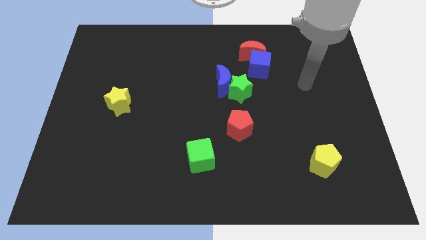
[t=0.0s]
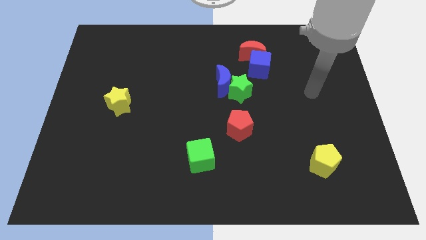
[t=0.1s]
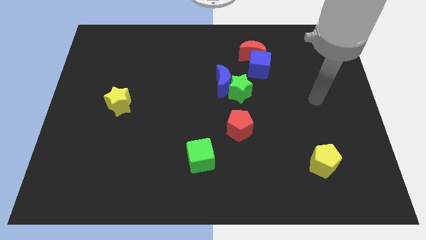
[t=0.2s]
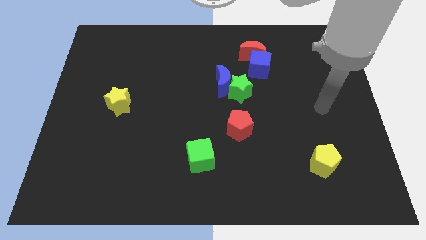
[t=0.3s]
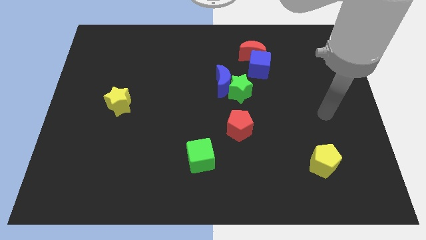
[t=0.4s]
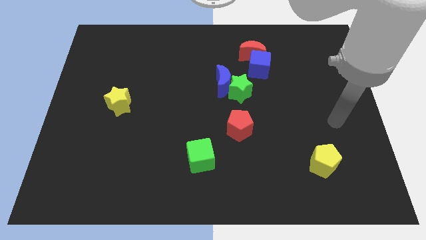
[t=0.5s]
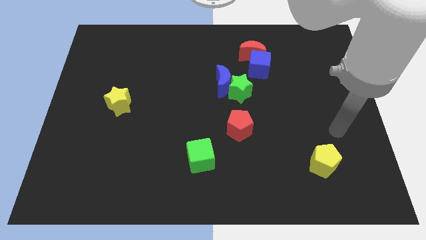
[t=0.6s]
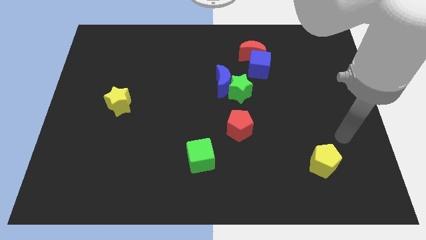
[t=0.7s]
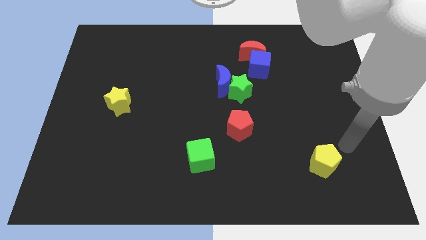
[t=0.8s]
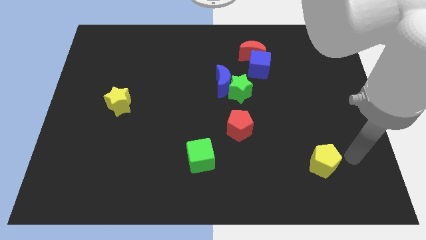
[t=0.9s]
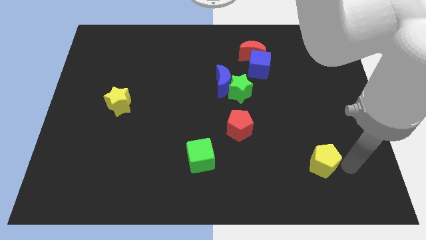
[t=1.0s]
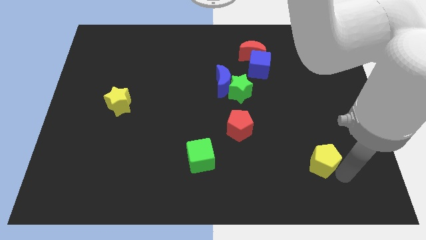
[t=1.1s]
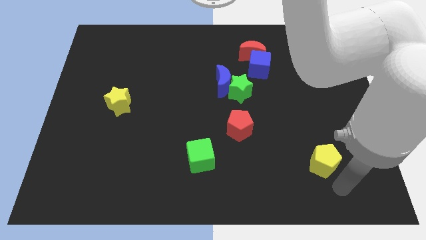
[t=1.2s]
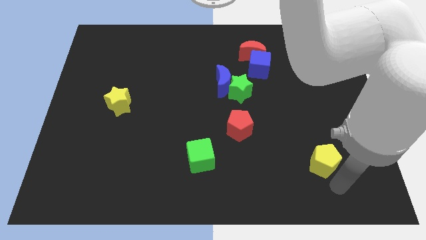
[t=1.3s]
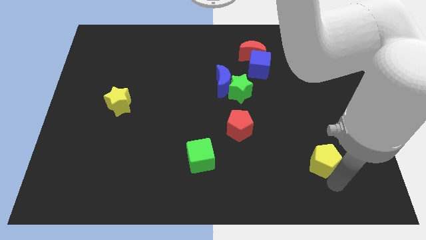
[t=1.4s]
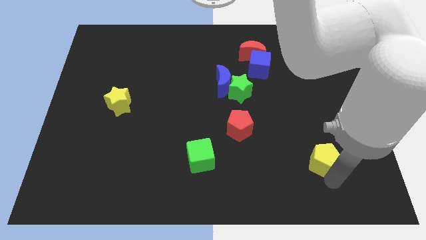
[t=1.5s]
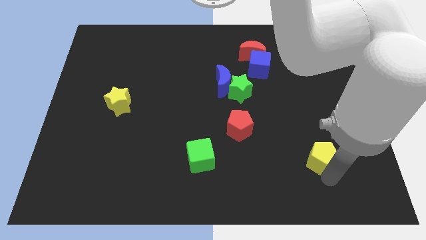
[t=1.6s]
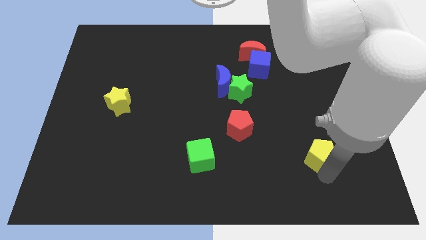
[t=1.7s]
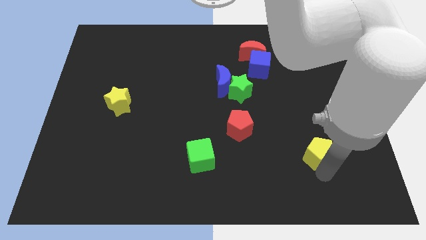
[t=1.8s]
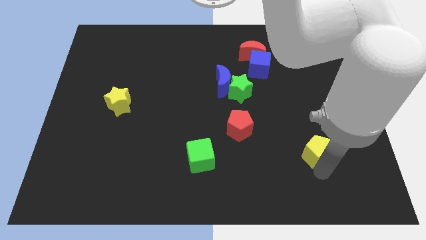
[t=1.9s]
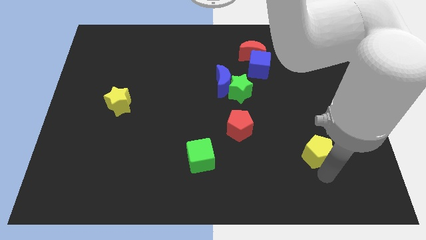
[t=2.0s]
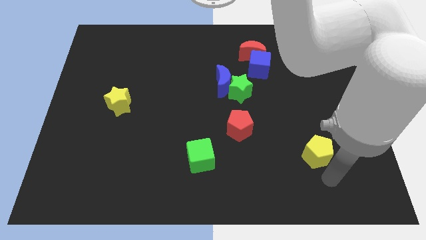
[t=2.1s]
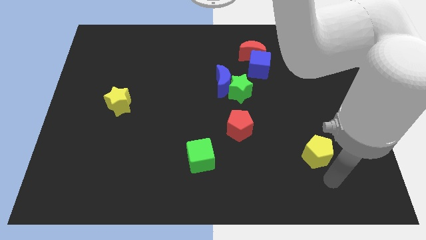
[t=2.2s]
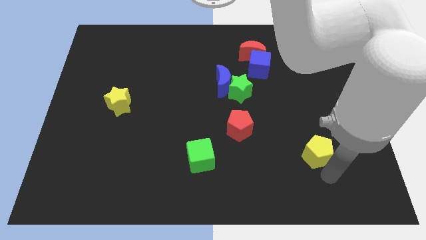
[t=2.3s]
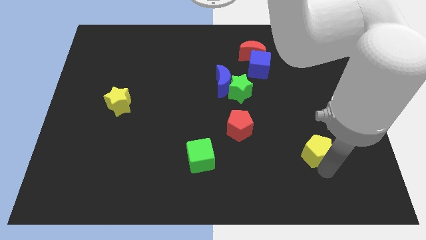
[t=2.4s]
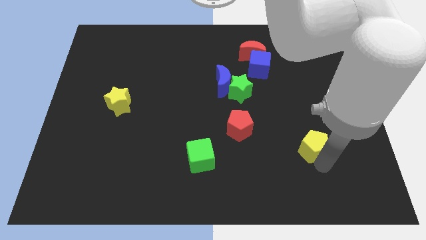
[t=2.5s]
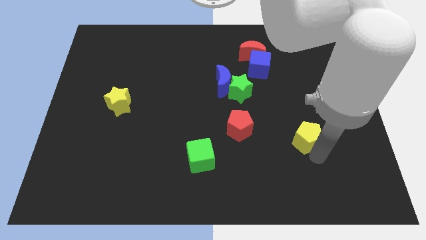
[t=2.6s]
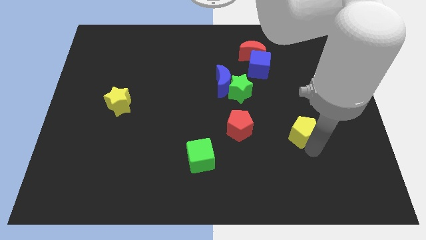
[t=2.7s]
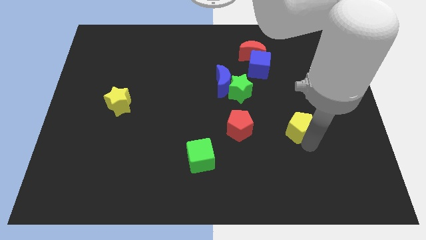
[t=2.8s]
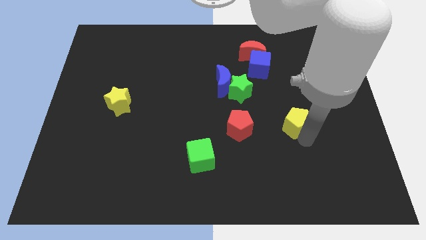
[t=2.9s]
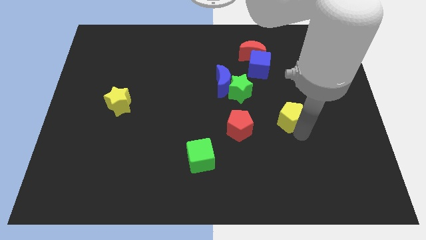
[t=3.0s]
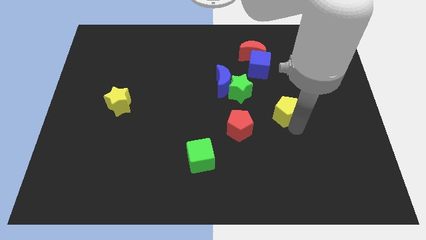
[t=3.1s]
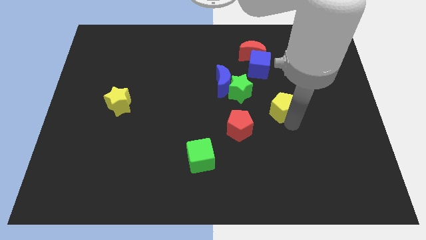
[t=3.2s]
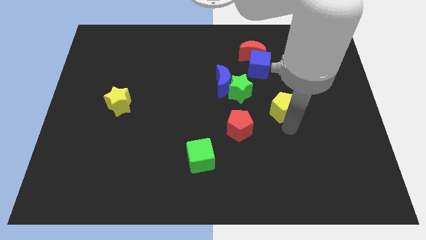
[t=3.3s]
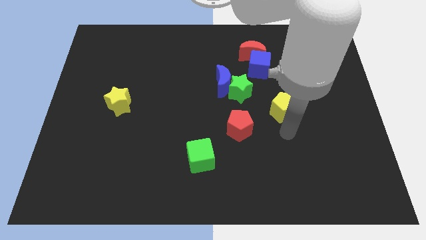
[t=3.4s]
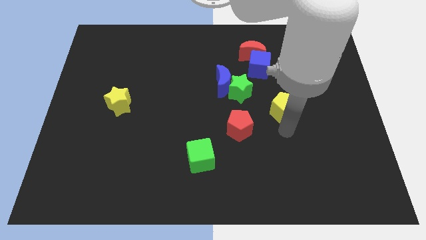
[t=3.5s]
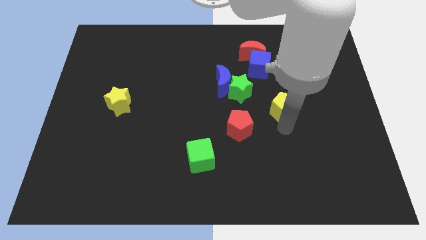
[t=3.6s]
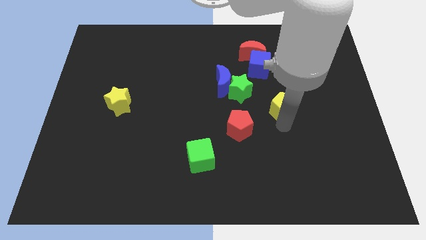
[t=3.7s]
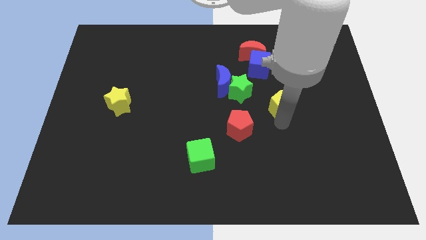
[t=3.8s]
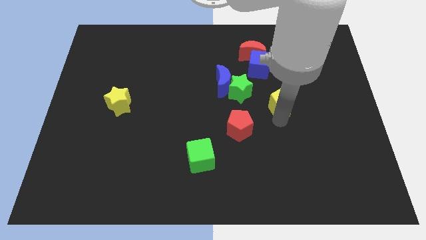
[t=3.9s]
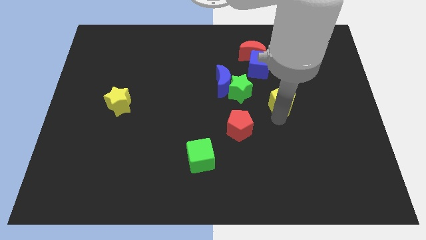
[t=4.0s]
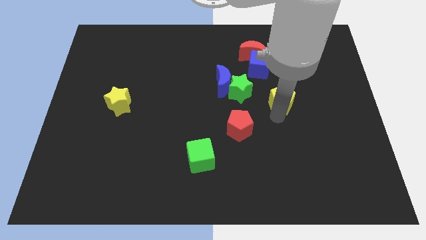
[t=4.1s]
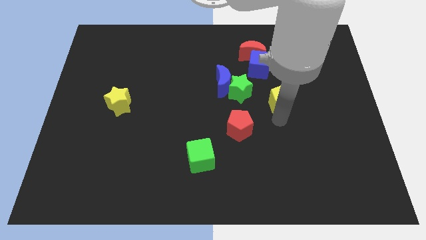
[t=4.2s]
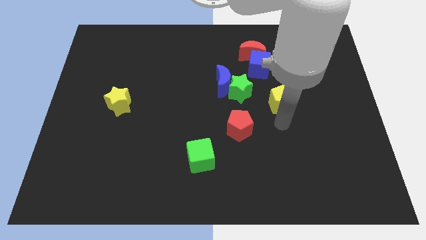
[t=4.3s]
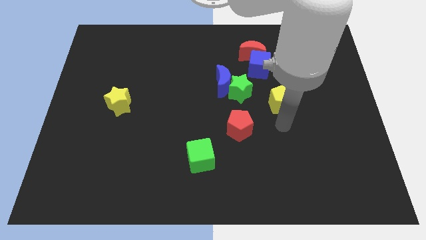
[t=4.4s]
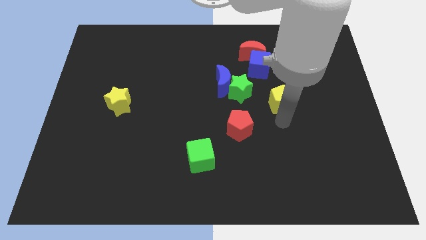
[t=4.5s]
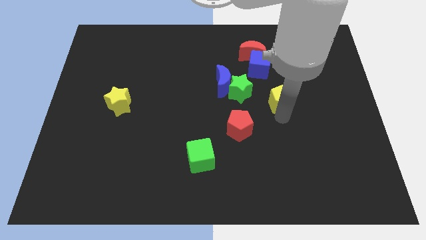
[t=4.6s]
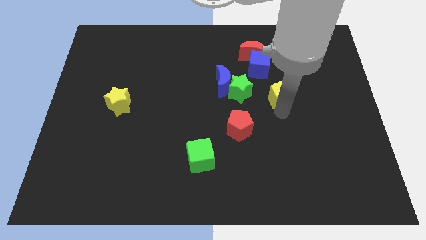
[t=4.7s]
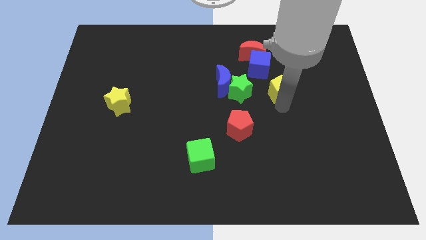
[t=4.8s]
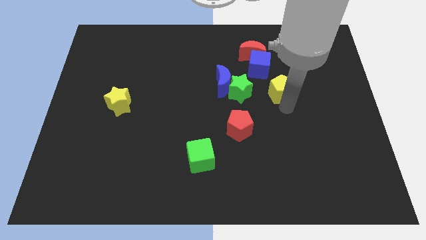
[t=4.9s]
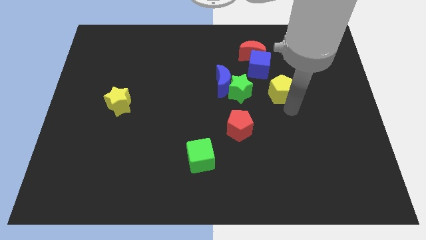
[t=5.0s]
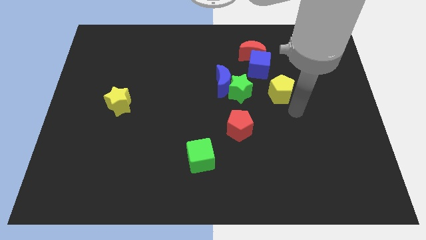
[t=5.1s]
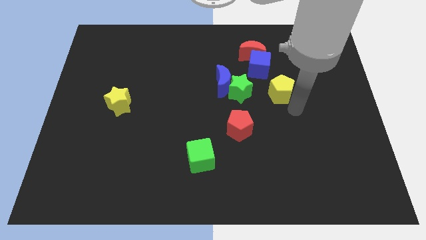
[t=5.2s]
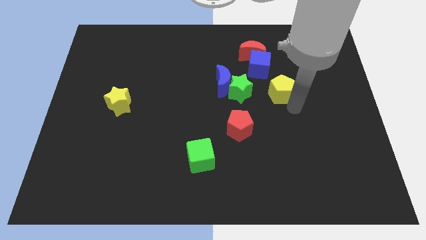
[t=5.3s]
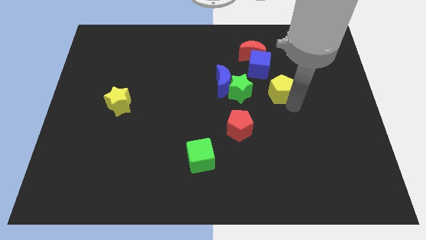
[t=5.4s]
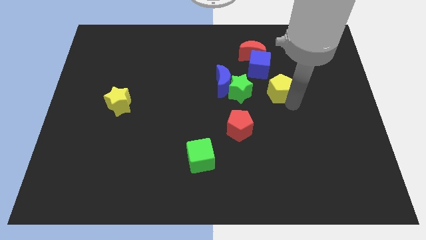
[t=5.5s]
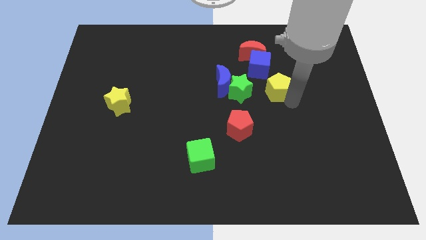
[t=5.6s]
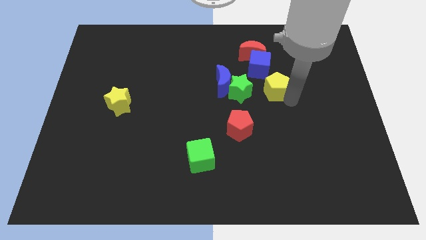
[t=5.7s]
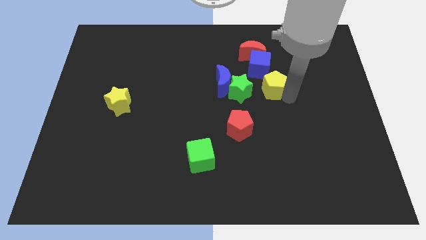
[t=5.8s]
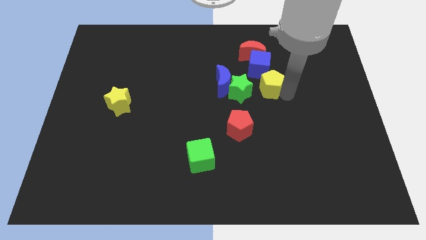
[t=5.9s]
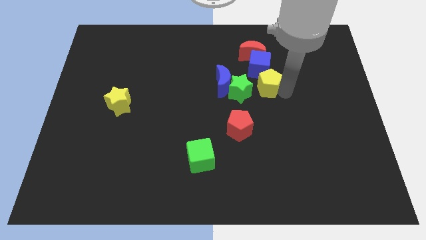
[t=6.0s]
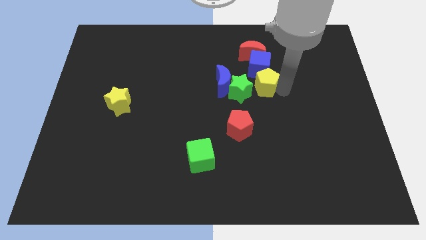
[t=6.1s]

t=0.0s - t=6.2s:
slide the yellow pentagon close to the blue cube
